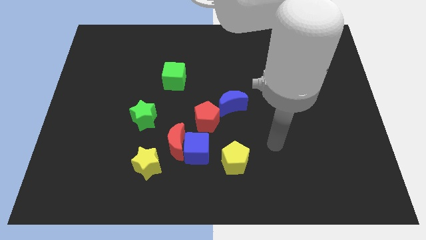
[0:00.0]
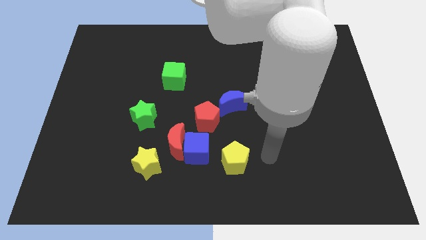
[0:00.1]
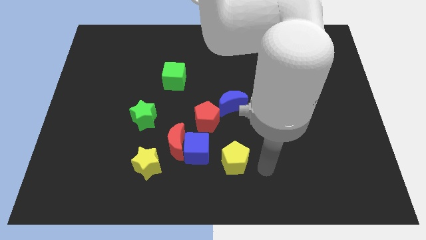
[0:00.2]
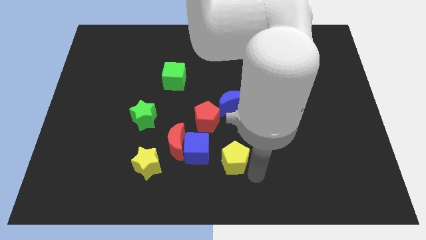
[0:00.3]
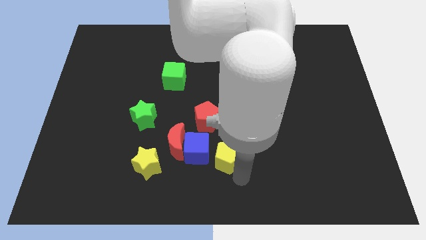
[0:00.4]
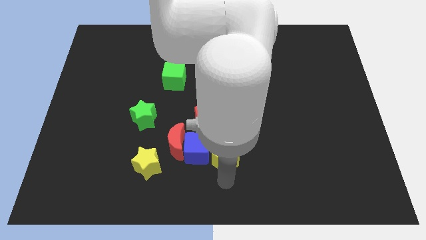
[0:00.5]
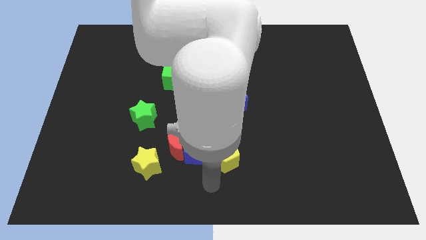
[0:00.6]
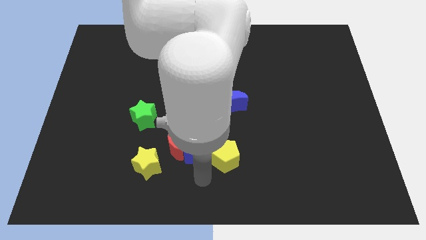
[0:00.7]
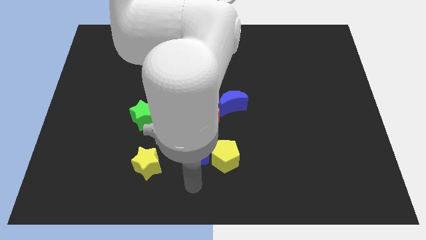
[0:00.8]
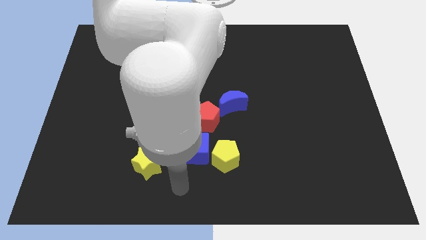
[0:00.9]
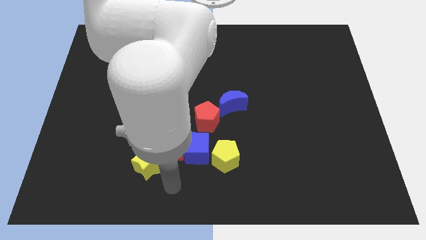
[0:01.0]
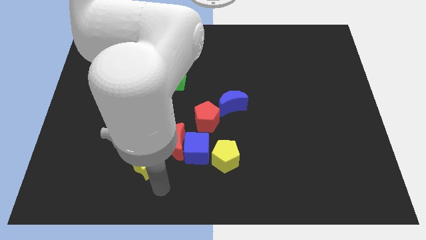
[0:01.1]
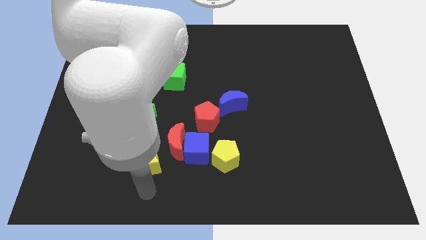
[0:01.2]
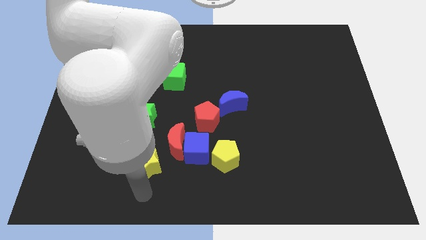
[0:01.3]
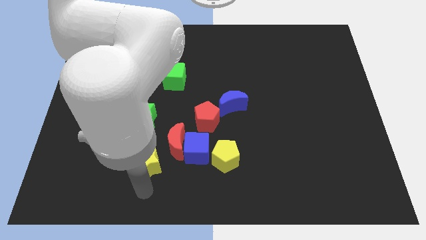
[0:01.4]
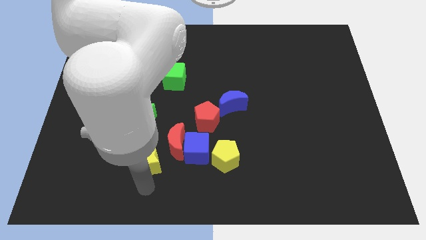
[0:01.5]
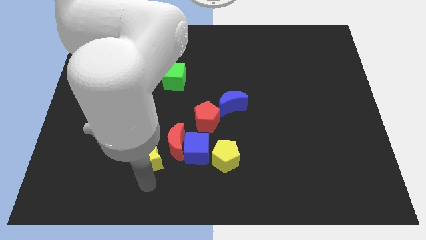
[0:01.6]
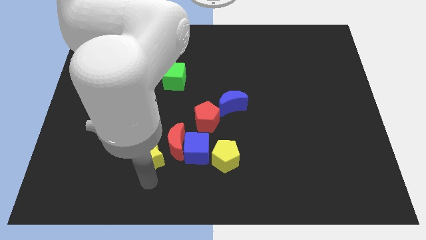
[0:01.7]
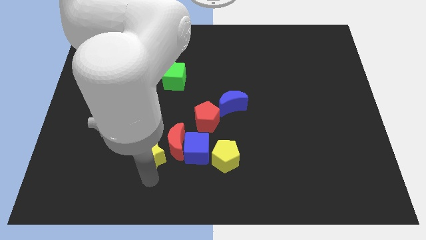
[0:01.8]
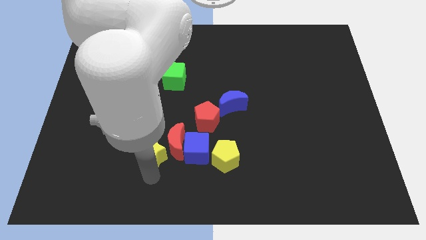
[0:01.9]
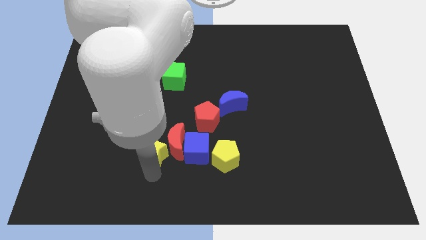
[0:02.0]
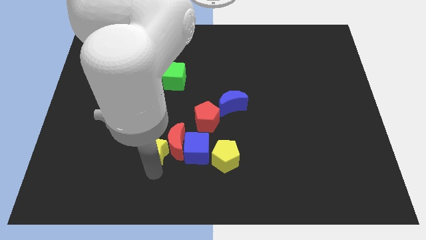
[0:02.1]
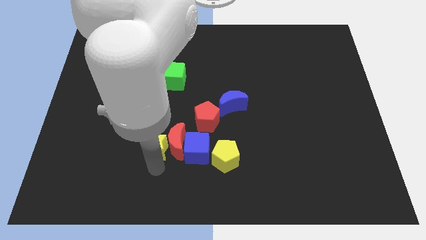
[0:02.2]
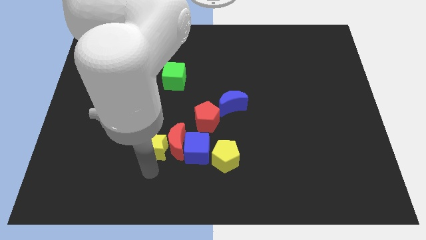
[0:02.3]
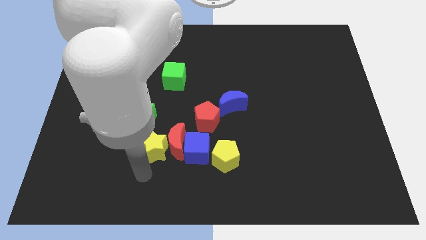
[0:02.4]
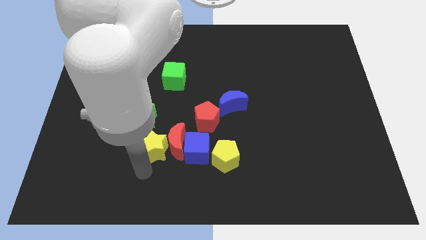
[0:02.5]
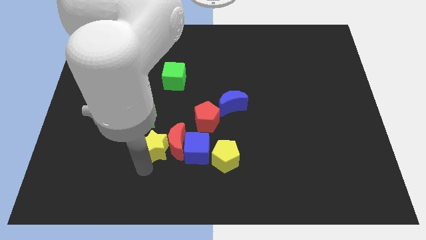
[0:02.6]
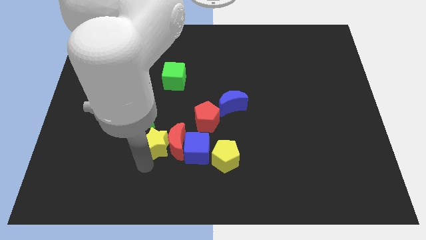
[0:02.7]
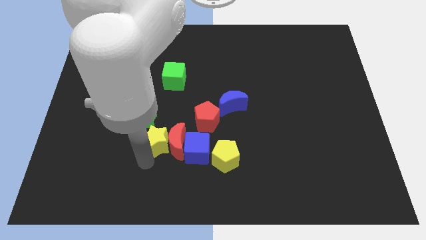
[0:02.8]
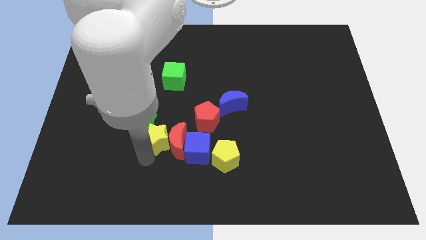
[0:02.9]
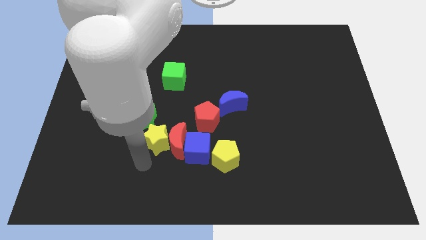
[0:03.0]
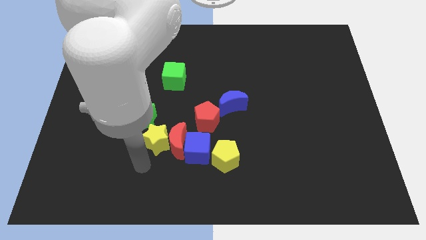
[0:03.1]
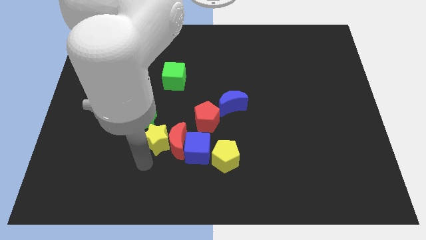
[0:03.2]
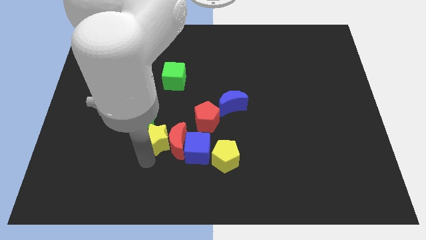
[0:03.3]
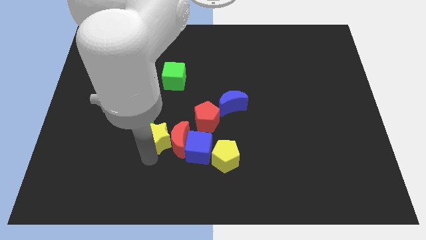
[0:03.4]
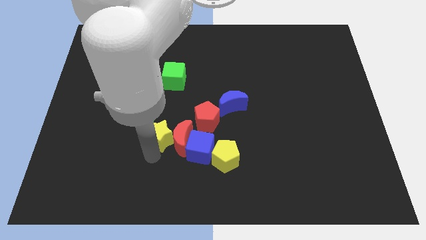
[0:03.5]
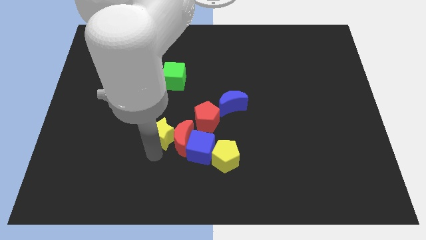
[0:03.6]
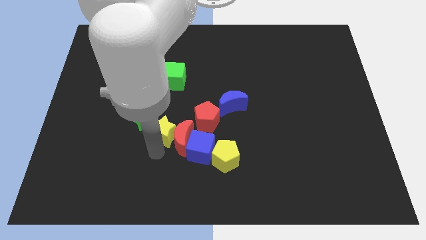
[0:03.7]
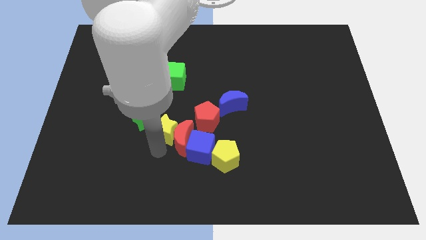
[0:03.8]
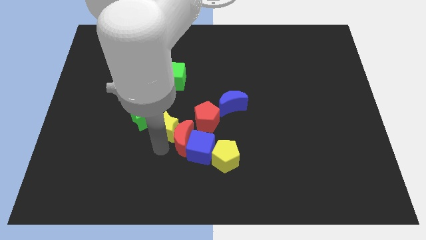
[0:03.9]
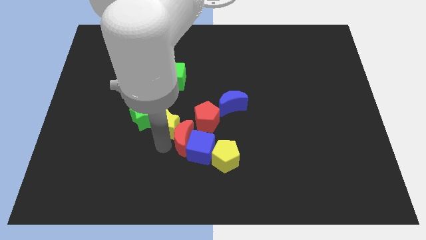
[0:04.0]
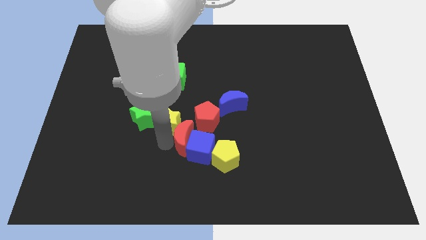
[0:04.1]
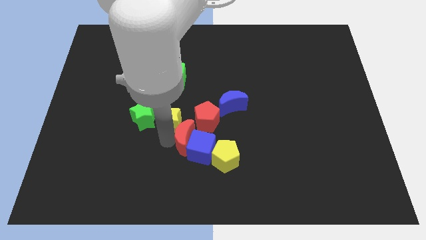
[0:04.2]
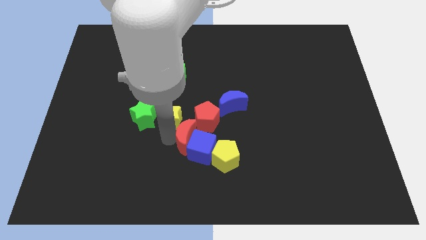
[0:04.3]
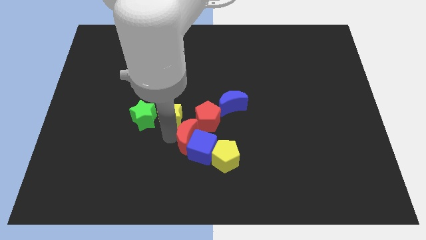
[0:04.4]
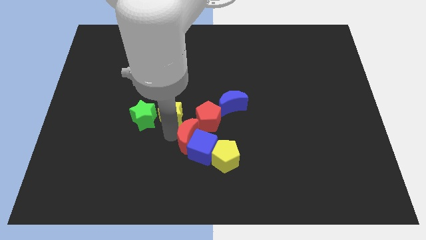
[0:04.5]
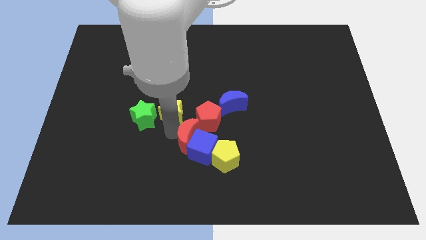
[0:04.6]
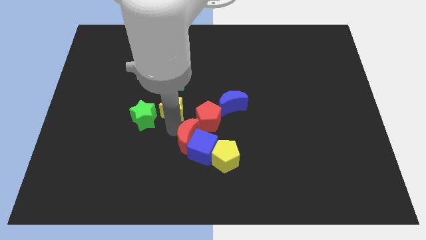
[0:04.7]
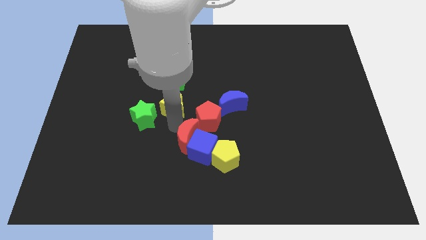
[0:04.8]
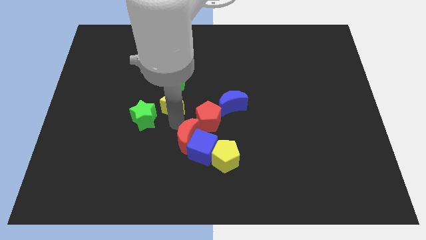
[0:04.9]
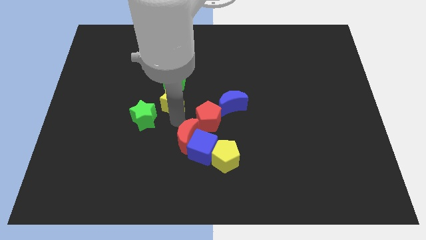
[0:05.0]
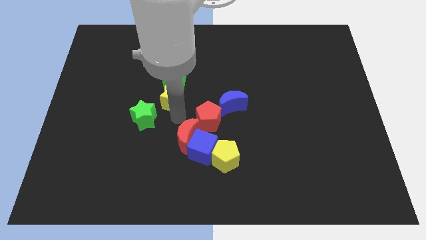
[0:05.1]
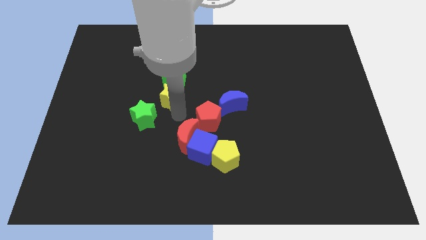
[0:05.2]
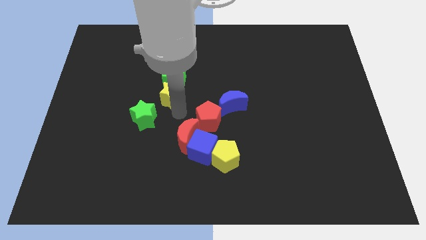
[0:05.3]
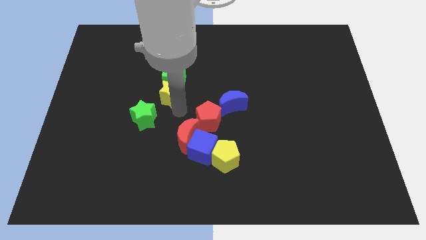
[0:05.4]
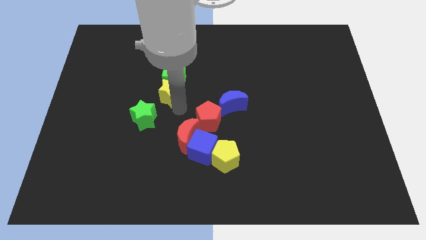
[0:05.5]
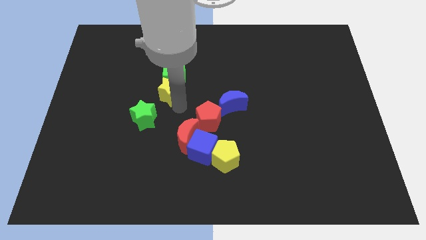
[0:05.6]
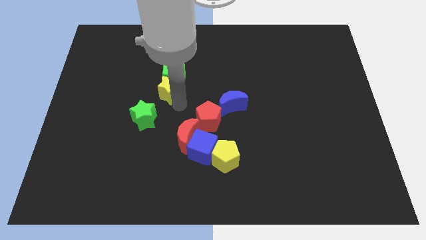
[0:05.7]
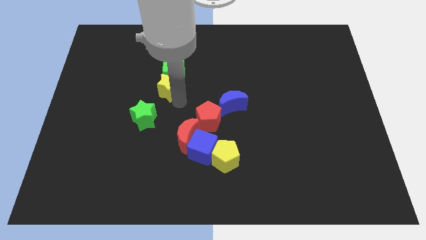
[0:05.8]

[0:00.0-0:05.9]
move the yellow star upwards

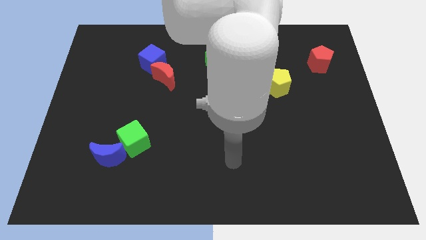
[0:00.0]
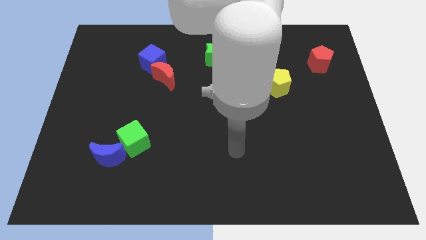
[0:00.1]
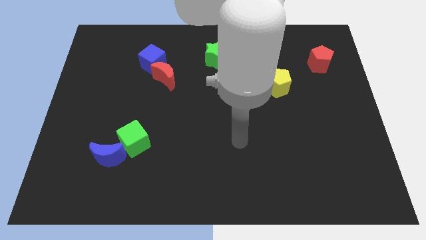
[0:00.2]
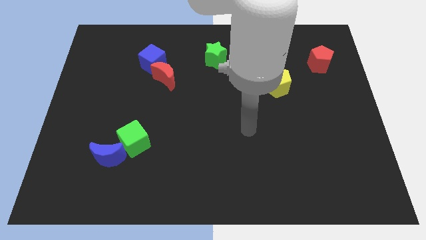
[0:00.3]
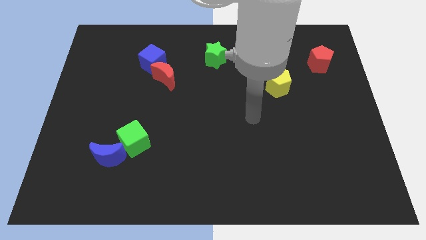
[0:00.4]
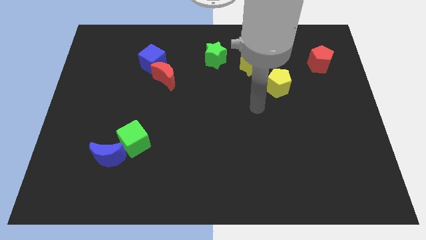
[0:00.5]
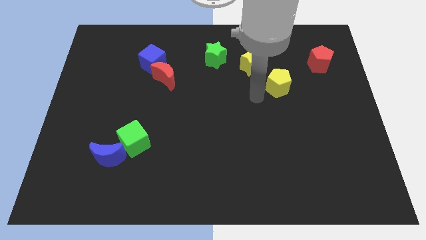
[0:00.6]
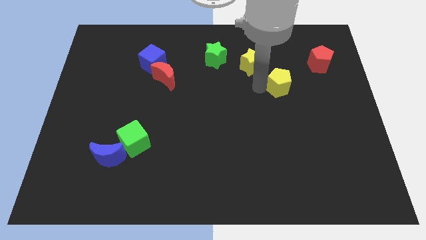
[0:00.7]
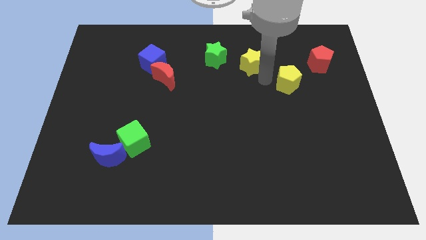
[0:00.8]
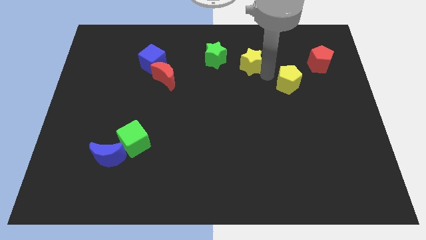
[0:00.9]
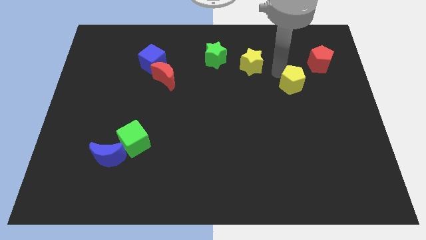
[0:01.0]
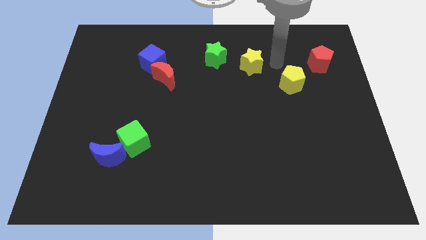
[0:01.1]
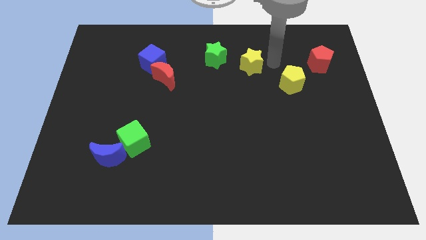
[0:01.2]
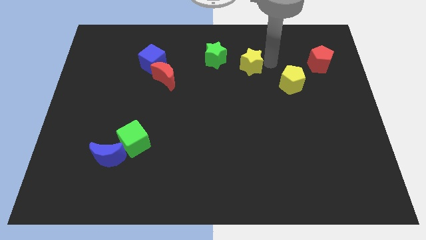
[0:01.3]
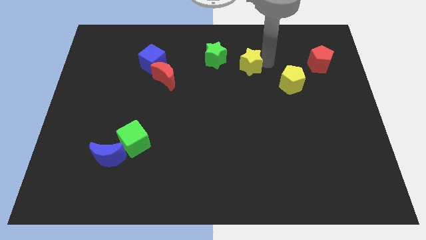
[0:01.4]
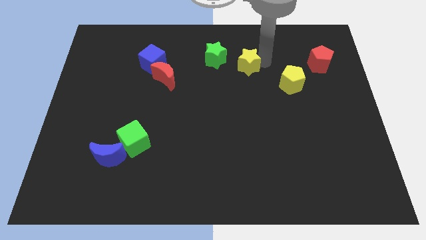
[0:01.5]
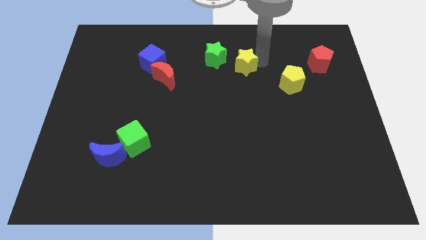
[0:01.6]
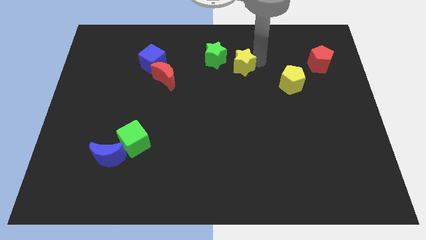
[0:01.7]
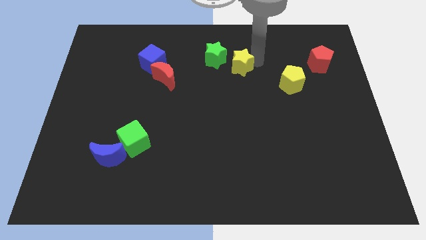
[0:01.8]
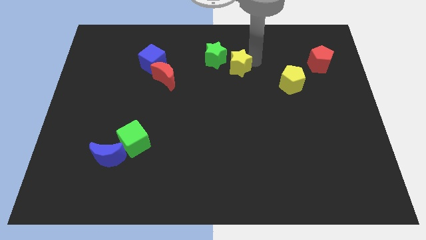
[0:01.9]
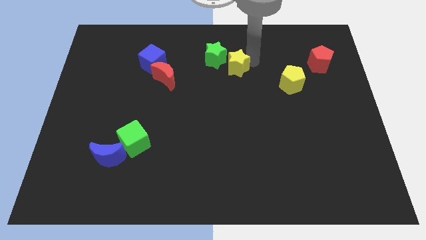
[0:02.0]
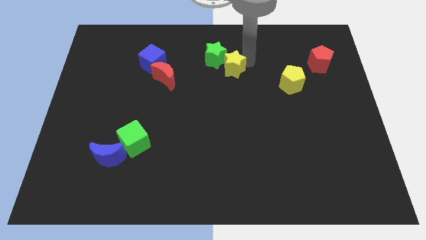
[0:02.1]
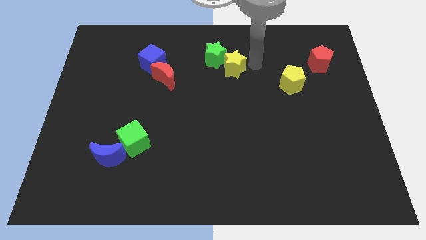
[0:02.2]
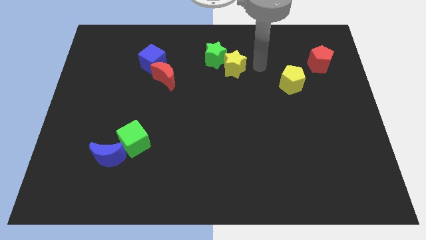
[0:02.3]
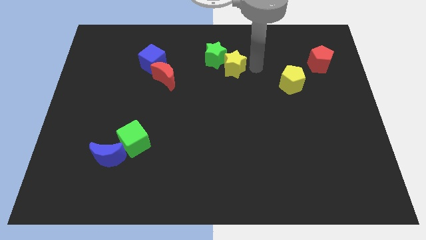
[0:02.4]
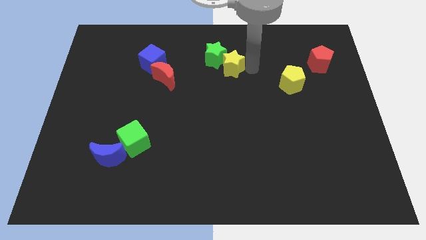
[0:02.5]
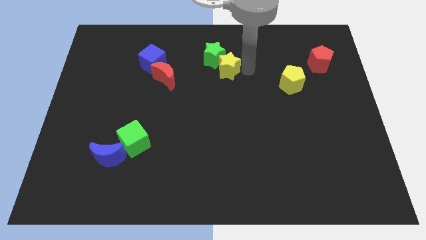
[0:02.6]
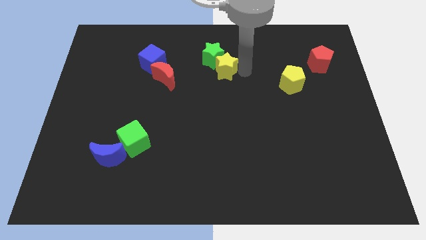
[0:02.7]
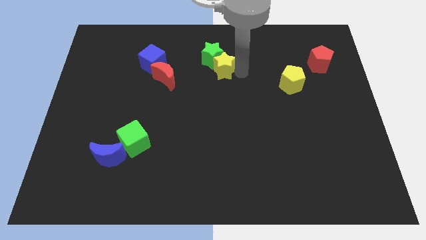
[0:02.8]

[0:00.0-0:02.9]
slide the yellow star a little bit left
